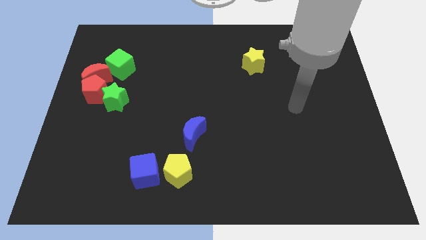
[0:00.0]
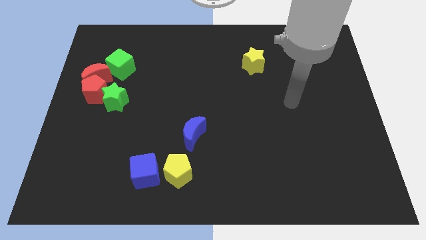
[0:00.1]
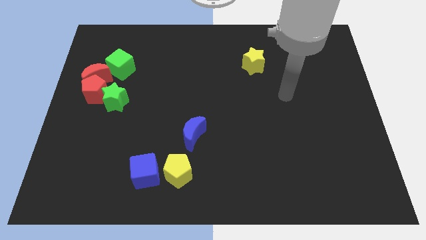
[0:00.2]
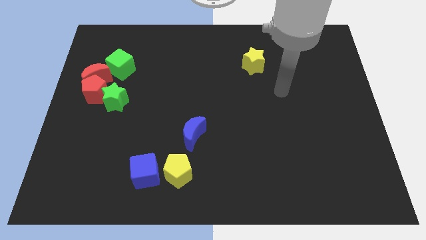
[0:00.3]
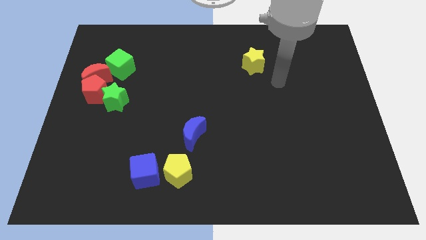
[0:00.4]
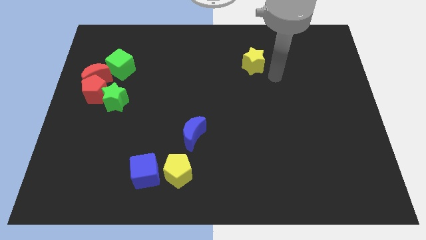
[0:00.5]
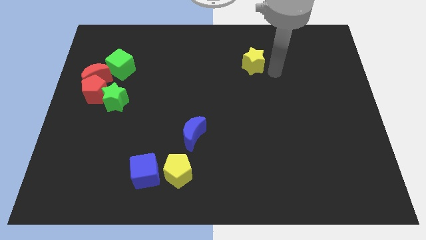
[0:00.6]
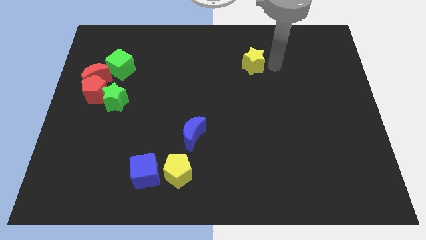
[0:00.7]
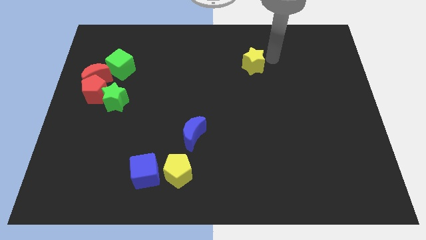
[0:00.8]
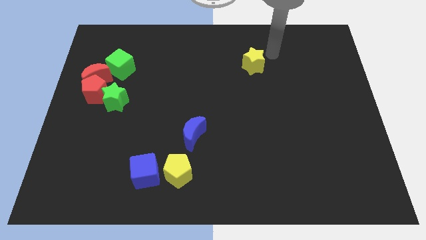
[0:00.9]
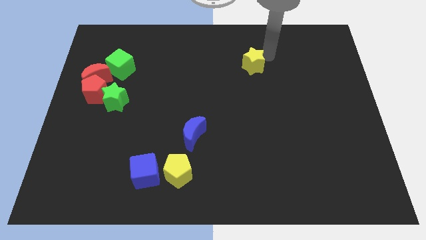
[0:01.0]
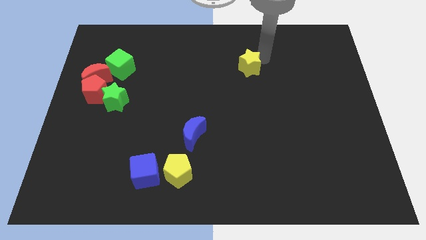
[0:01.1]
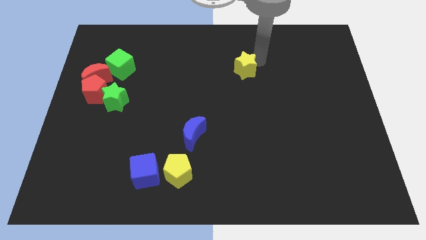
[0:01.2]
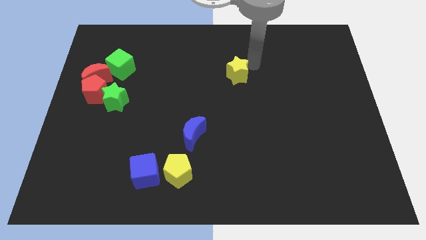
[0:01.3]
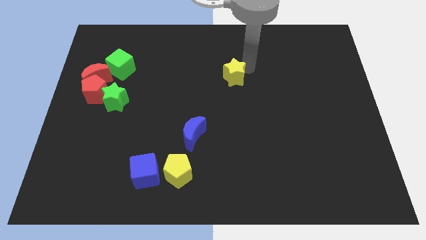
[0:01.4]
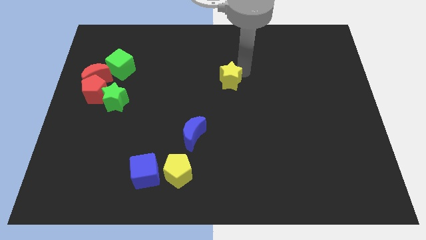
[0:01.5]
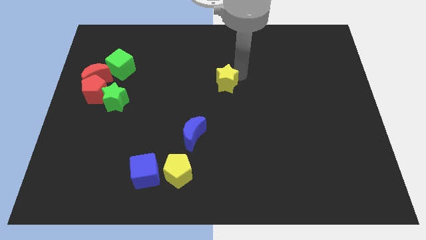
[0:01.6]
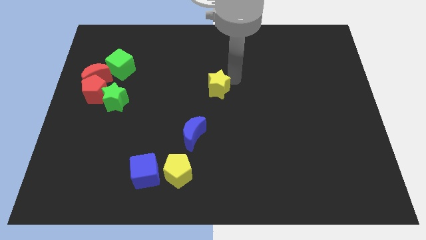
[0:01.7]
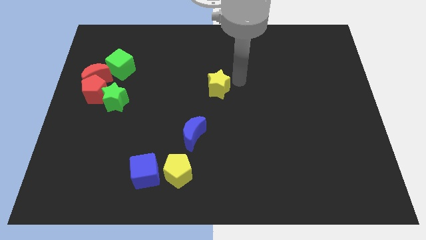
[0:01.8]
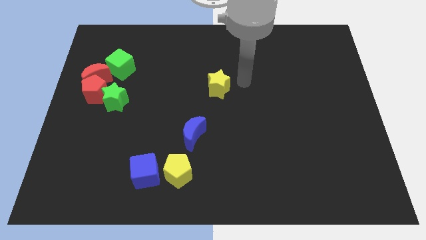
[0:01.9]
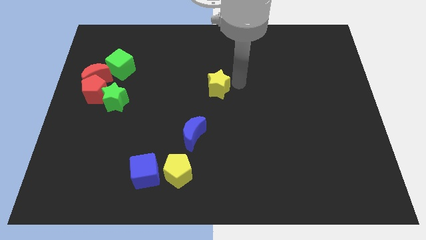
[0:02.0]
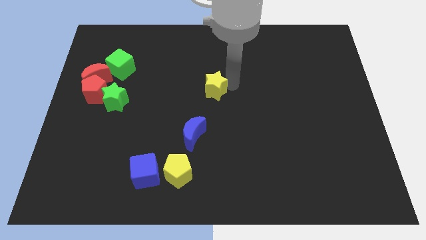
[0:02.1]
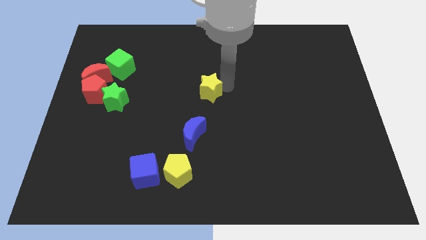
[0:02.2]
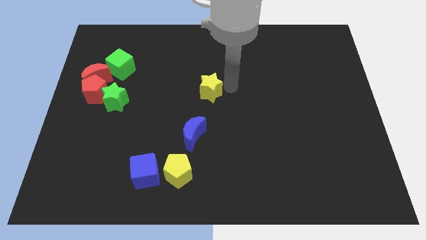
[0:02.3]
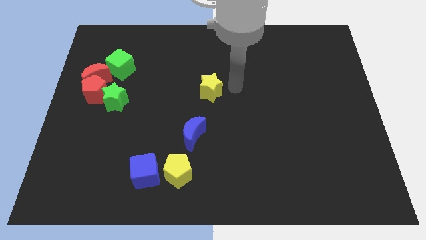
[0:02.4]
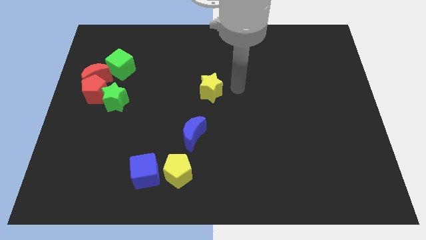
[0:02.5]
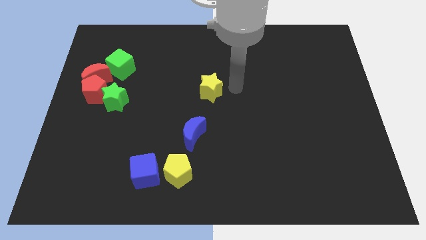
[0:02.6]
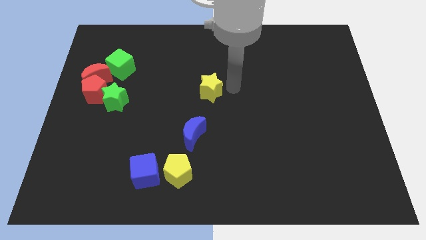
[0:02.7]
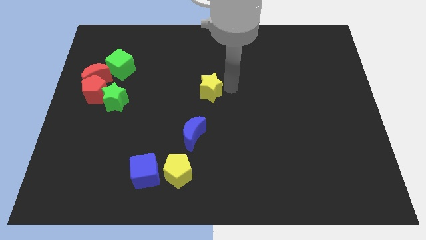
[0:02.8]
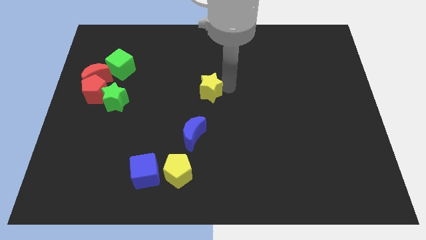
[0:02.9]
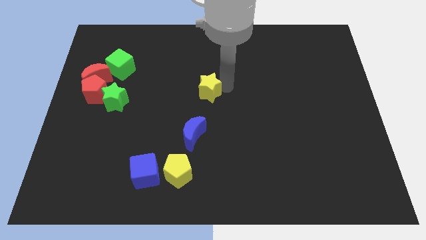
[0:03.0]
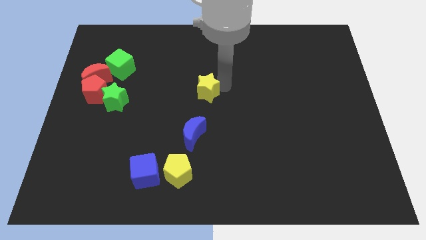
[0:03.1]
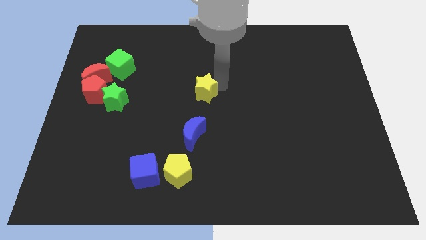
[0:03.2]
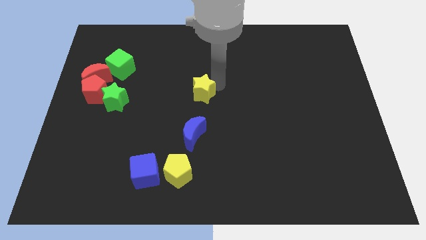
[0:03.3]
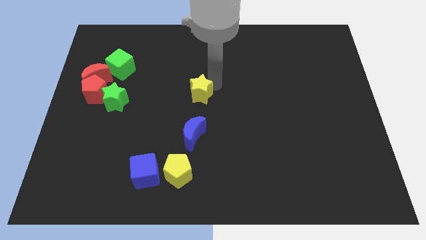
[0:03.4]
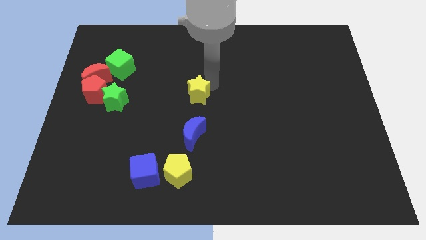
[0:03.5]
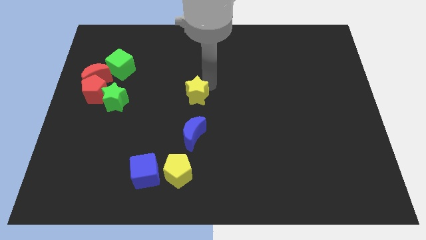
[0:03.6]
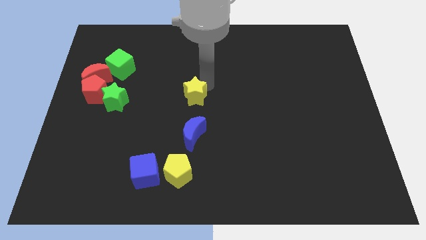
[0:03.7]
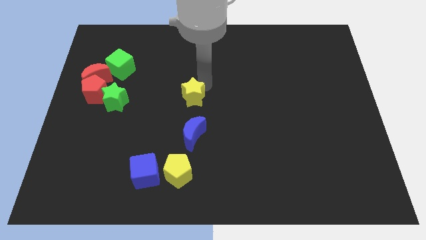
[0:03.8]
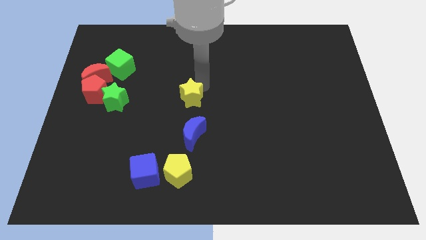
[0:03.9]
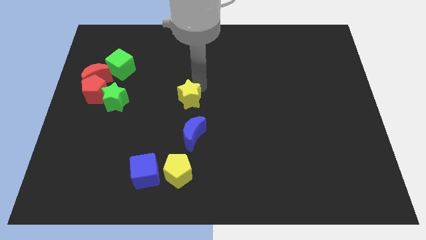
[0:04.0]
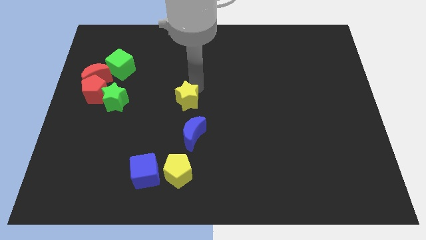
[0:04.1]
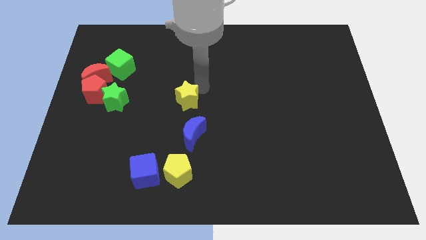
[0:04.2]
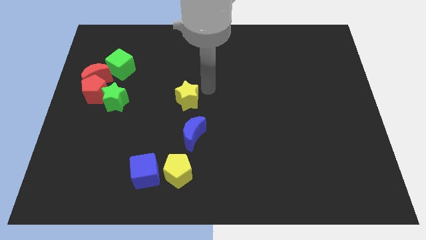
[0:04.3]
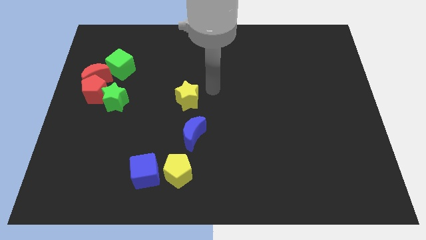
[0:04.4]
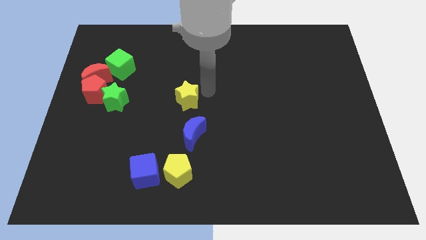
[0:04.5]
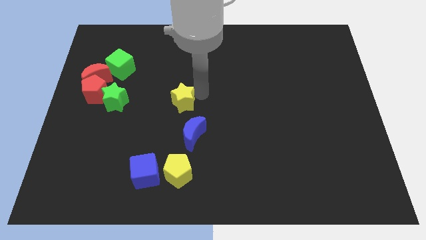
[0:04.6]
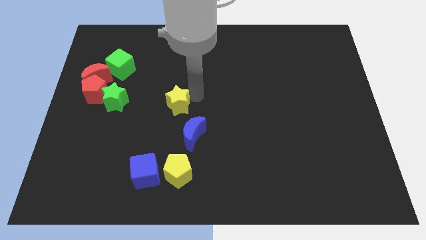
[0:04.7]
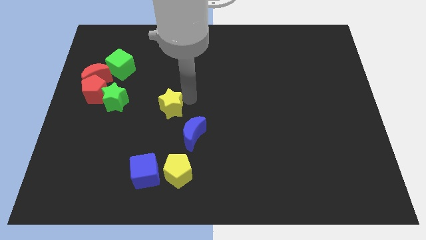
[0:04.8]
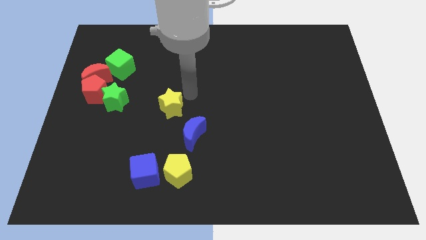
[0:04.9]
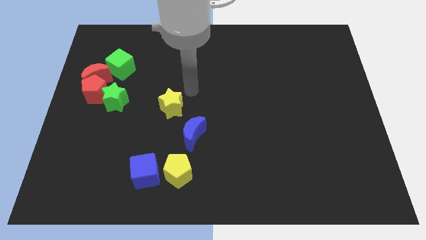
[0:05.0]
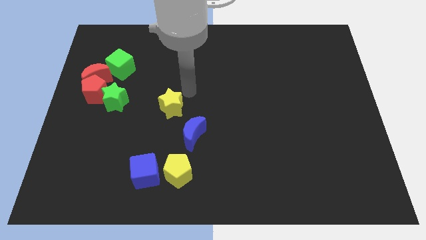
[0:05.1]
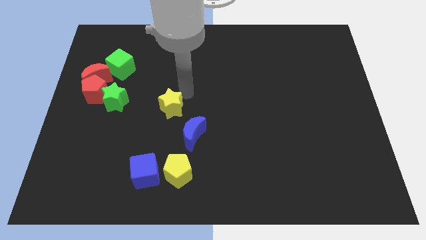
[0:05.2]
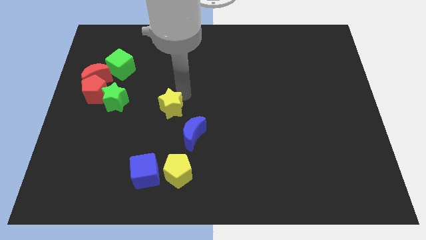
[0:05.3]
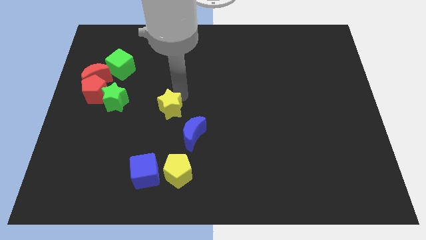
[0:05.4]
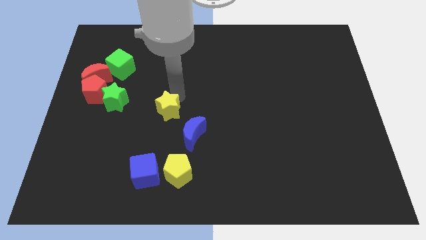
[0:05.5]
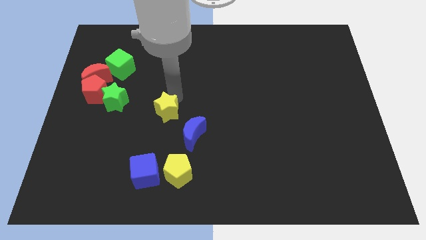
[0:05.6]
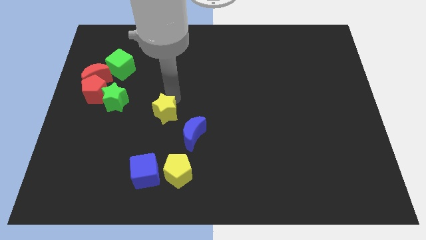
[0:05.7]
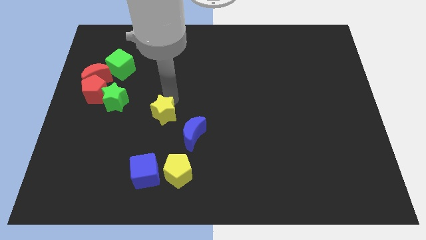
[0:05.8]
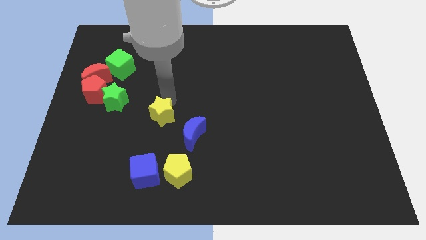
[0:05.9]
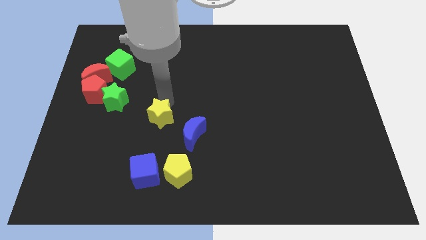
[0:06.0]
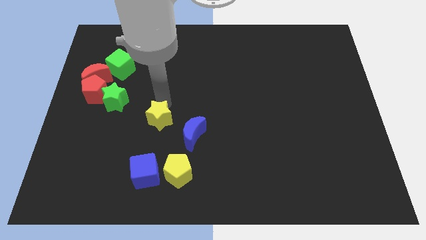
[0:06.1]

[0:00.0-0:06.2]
put the yellow star just left of the blue moon

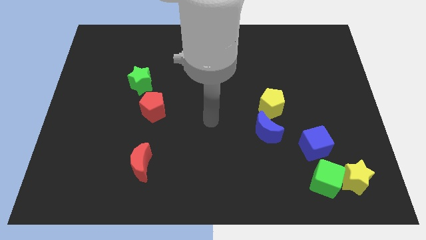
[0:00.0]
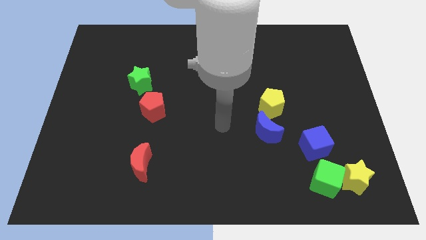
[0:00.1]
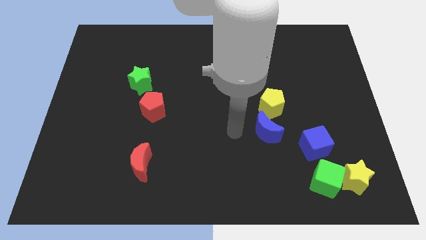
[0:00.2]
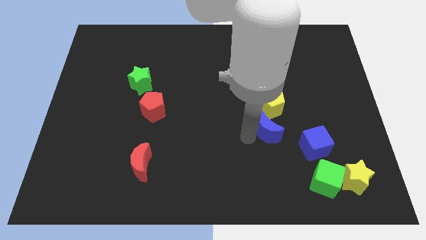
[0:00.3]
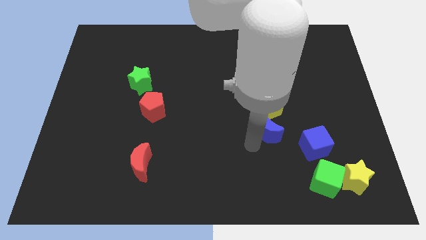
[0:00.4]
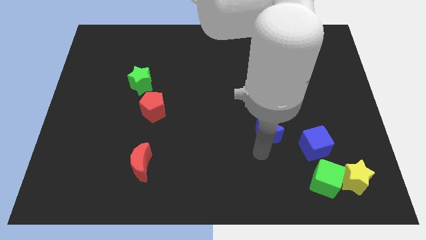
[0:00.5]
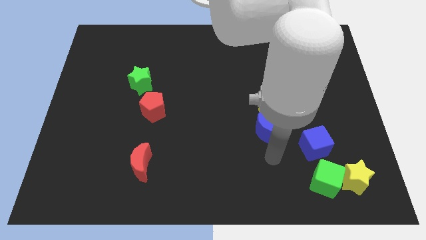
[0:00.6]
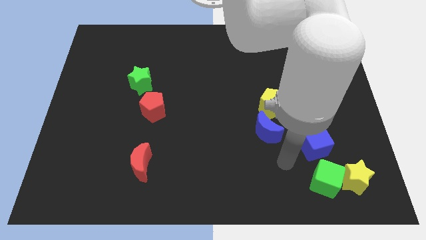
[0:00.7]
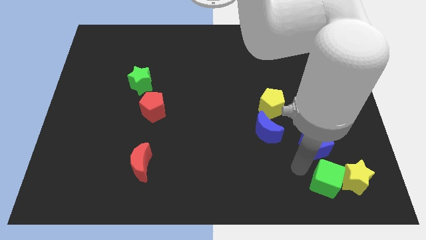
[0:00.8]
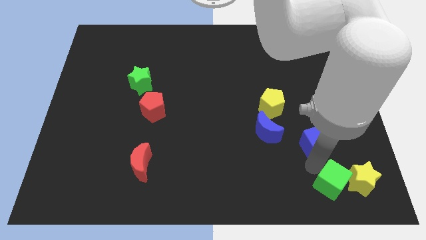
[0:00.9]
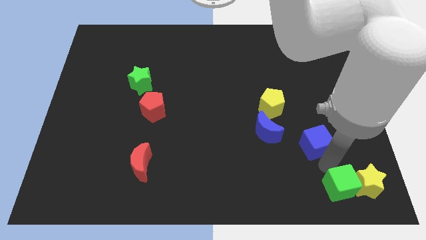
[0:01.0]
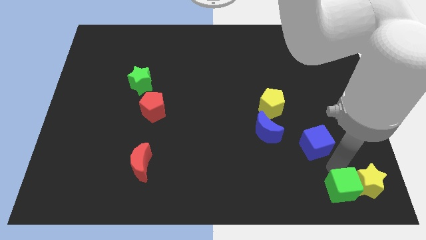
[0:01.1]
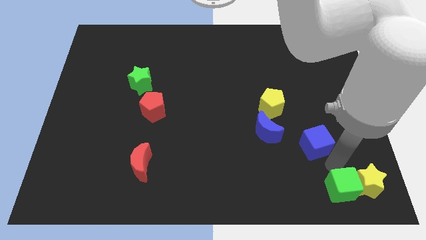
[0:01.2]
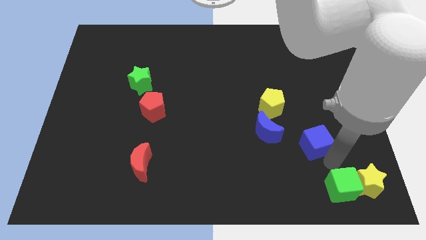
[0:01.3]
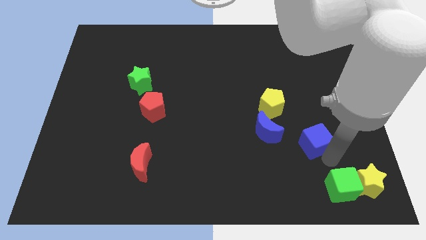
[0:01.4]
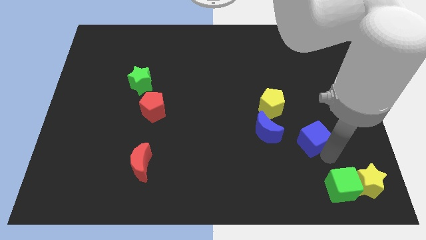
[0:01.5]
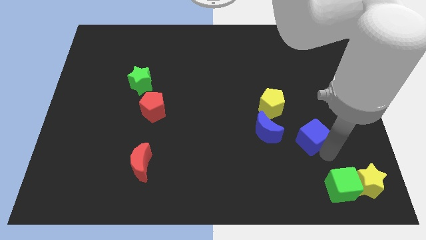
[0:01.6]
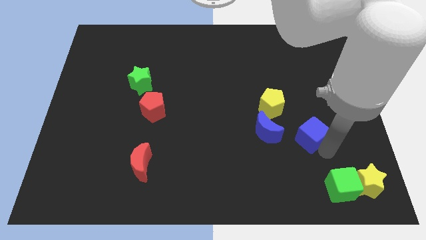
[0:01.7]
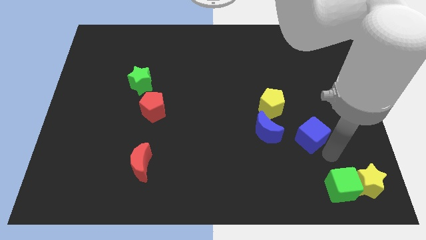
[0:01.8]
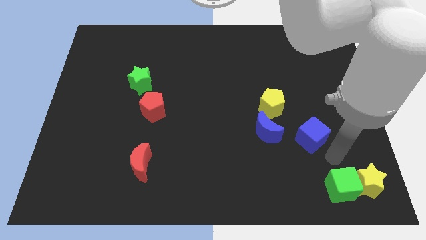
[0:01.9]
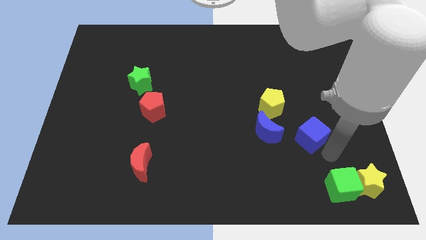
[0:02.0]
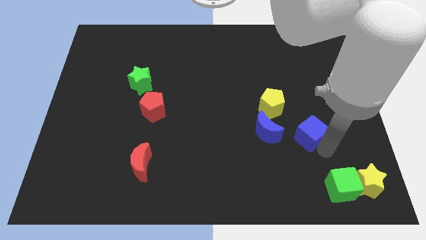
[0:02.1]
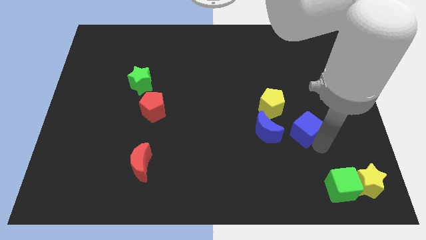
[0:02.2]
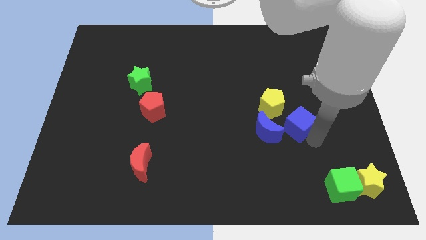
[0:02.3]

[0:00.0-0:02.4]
move the blue cube to the top right side of the blue moon
